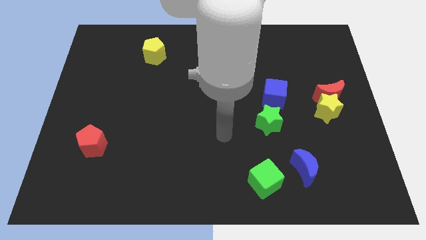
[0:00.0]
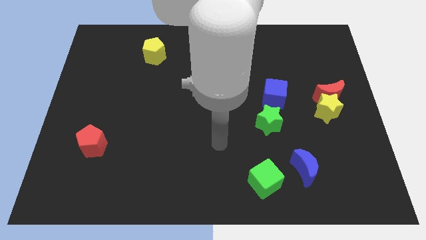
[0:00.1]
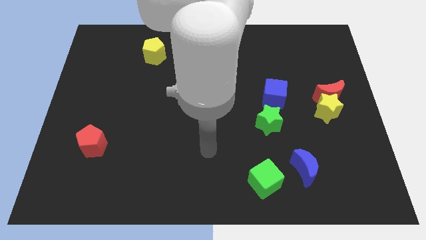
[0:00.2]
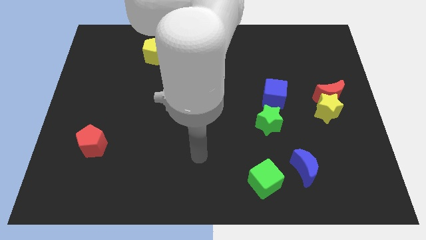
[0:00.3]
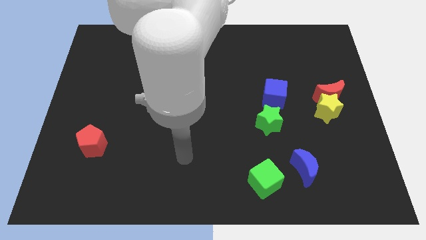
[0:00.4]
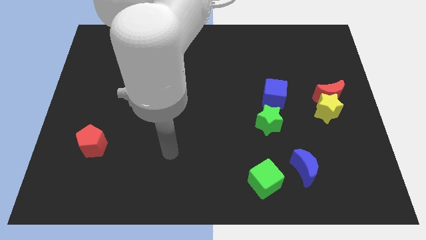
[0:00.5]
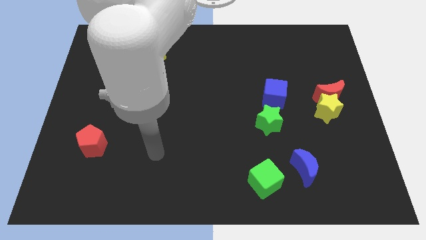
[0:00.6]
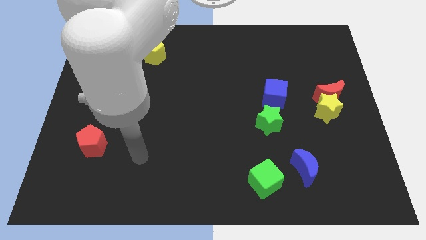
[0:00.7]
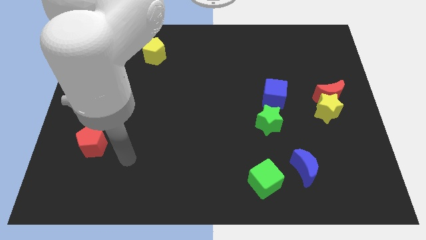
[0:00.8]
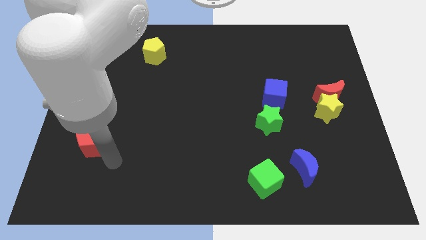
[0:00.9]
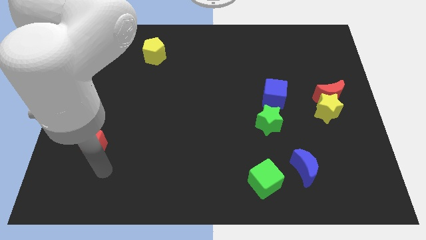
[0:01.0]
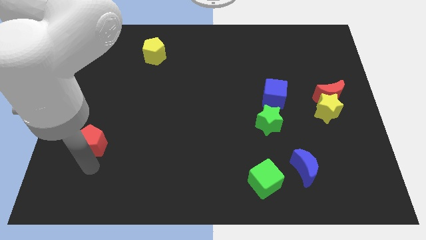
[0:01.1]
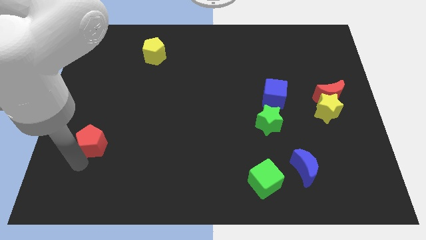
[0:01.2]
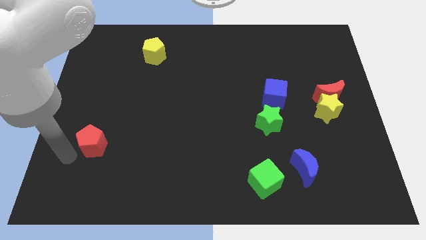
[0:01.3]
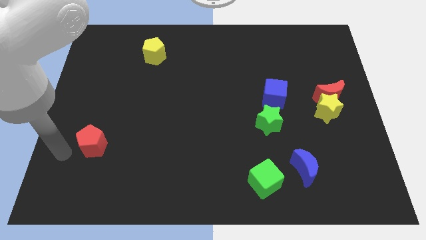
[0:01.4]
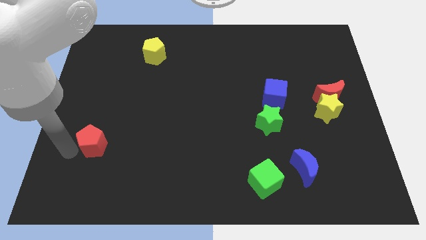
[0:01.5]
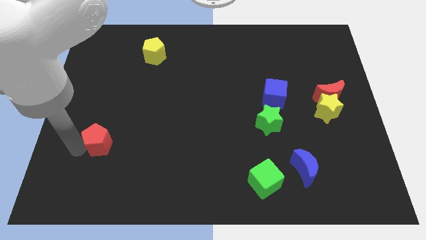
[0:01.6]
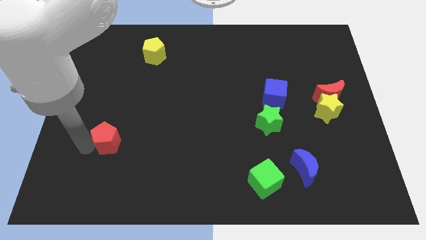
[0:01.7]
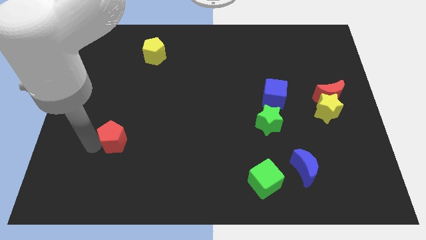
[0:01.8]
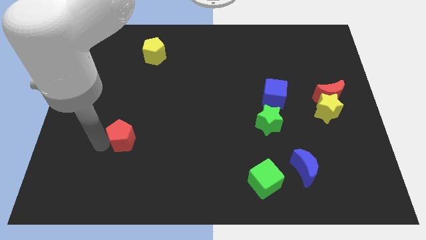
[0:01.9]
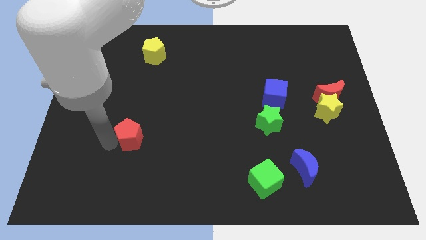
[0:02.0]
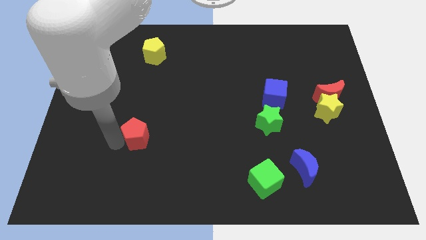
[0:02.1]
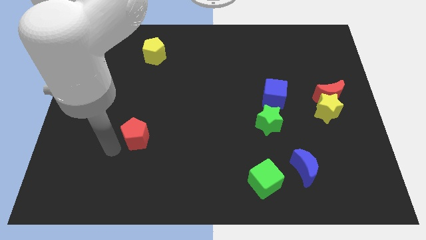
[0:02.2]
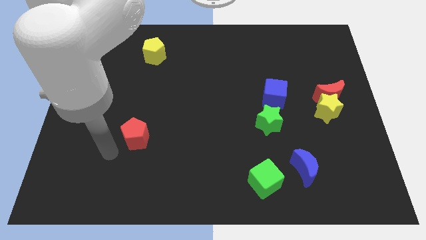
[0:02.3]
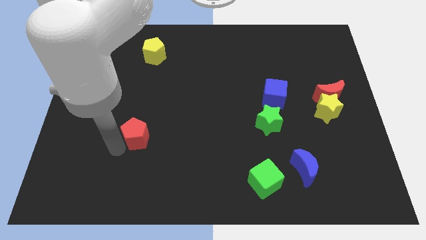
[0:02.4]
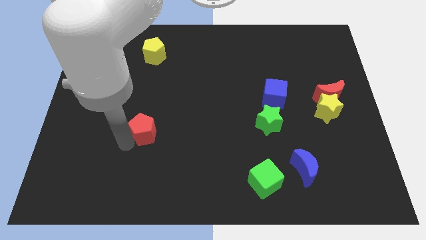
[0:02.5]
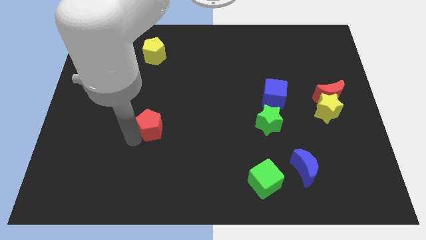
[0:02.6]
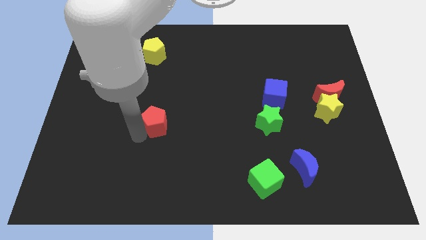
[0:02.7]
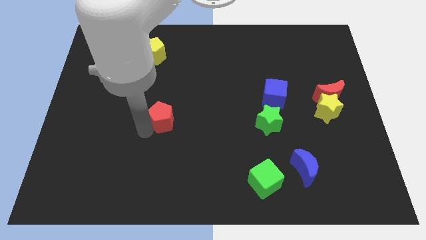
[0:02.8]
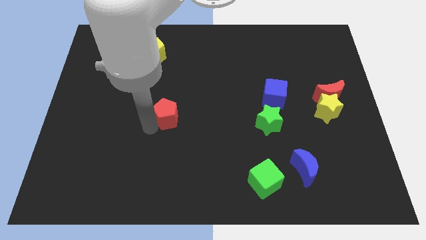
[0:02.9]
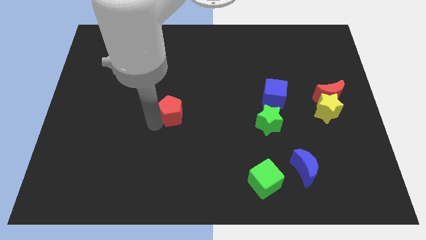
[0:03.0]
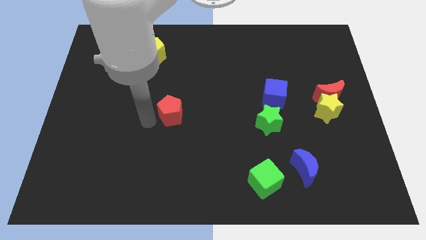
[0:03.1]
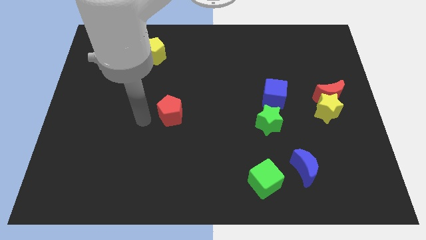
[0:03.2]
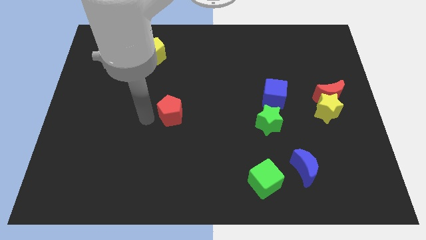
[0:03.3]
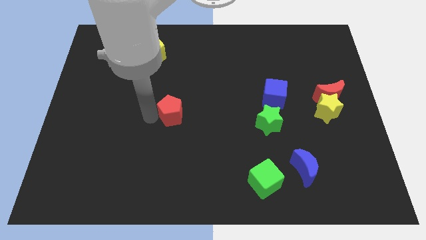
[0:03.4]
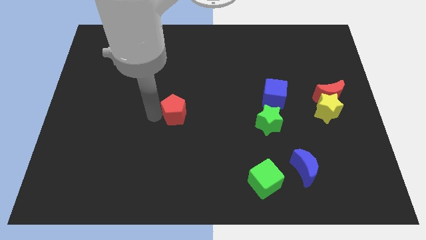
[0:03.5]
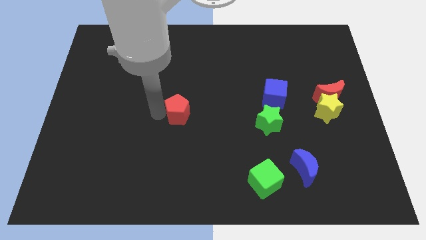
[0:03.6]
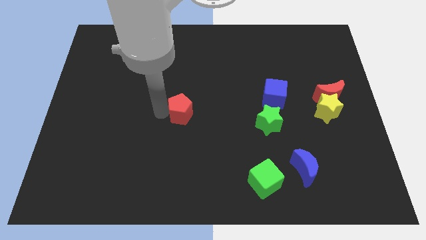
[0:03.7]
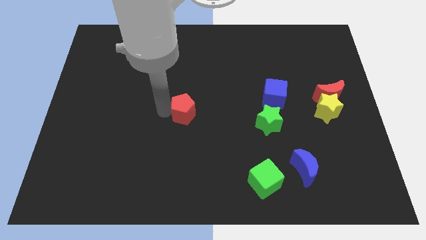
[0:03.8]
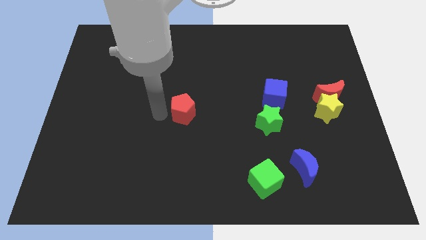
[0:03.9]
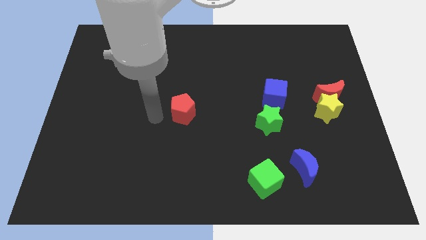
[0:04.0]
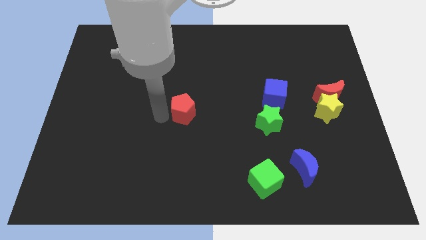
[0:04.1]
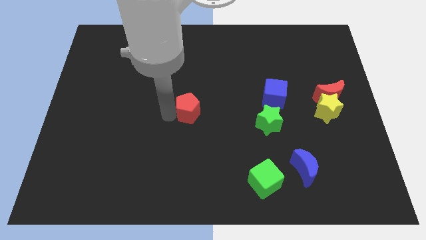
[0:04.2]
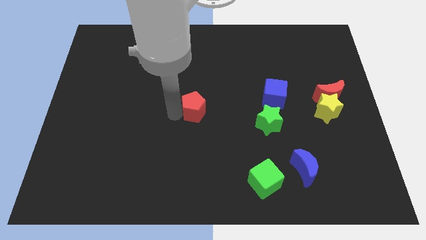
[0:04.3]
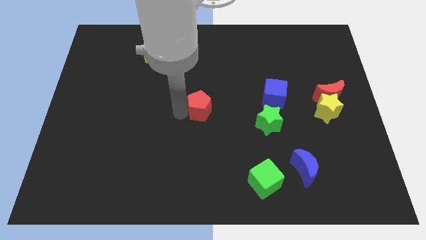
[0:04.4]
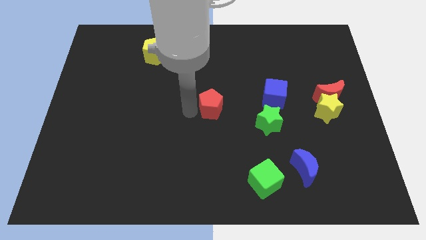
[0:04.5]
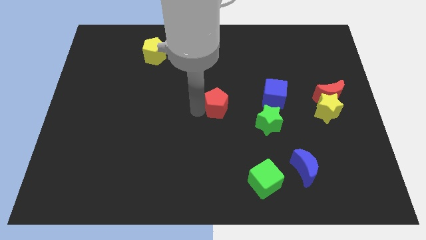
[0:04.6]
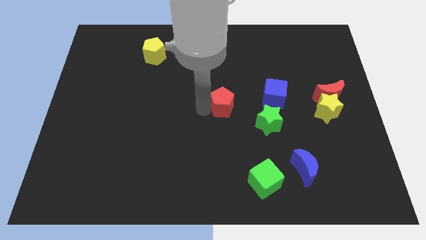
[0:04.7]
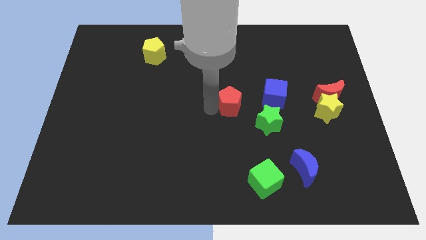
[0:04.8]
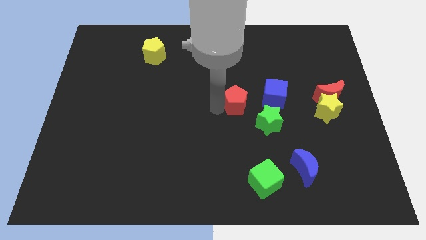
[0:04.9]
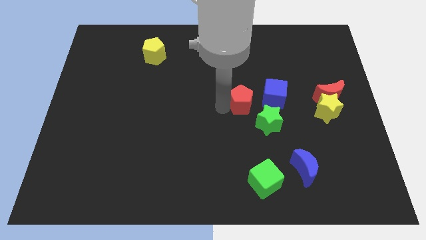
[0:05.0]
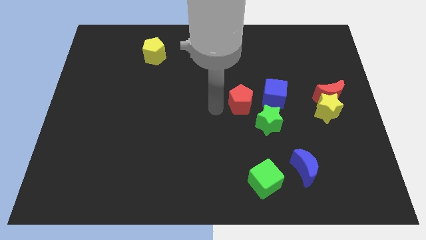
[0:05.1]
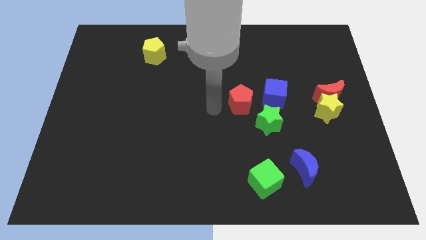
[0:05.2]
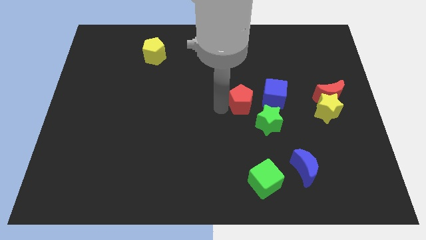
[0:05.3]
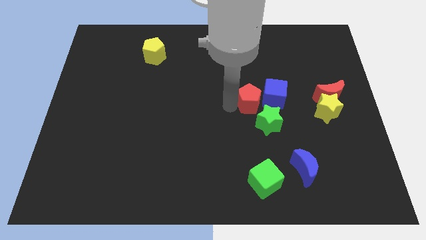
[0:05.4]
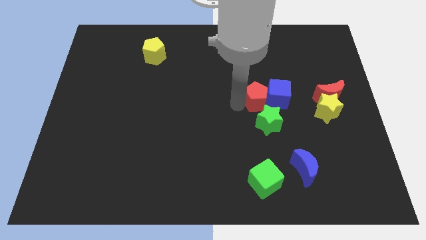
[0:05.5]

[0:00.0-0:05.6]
slide the red pentagon close to the blue cube

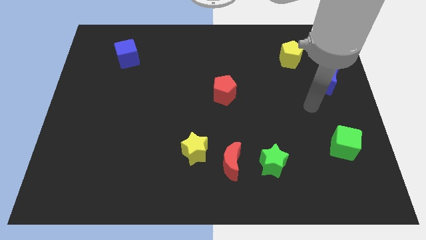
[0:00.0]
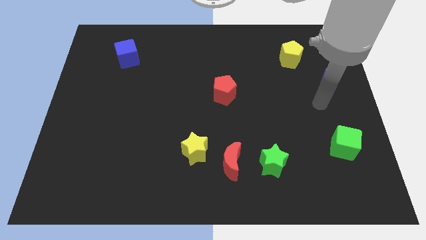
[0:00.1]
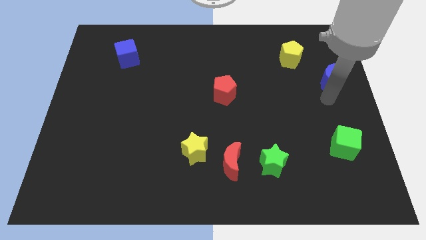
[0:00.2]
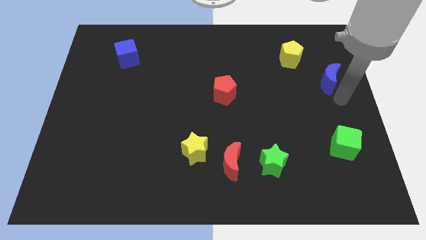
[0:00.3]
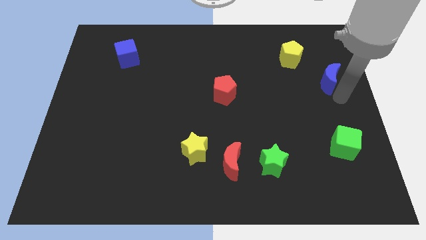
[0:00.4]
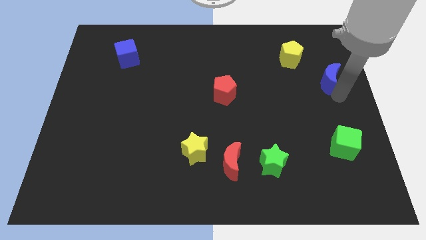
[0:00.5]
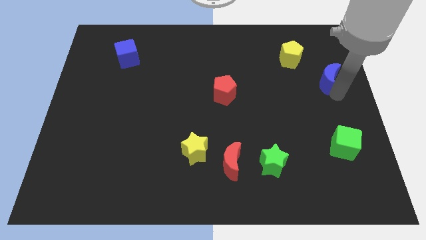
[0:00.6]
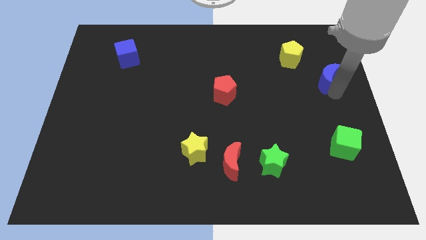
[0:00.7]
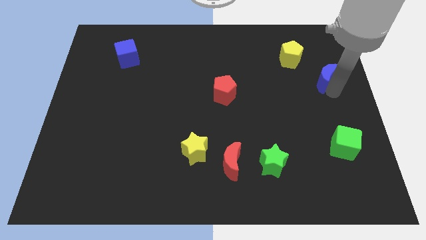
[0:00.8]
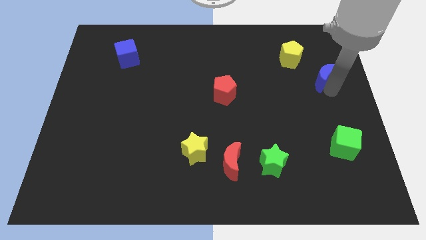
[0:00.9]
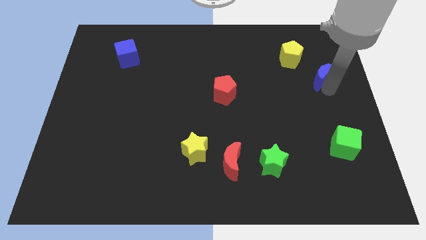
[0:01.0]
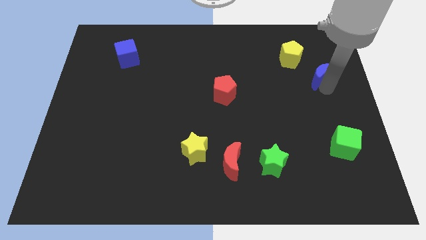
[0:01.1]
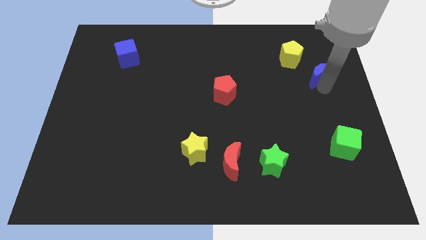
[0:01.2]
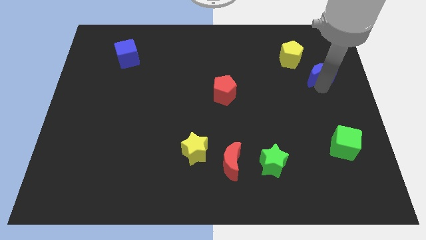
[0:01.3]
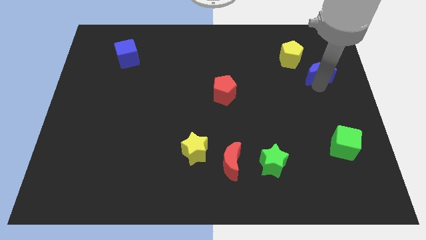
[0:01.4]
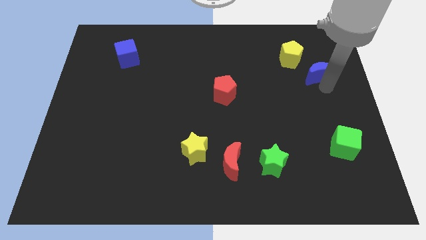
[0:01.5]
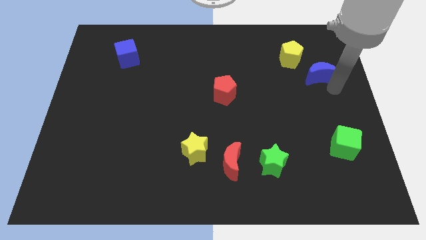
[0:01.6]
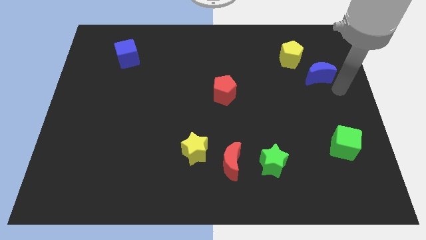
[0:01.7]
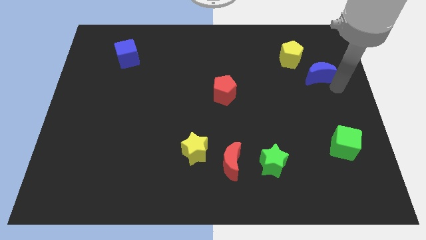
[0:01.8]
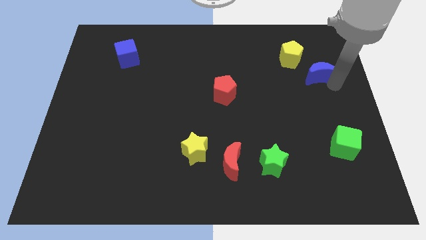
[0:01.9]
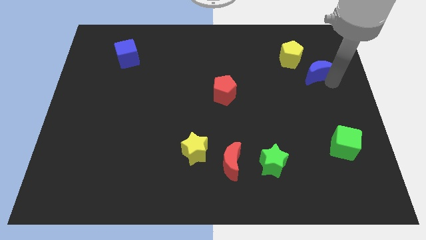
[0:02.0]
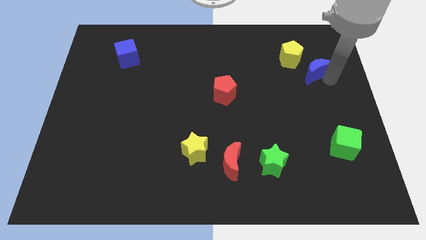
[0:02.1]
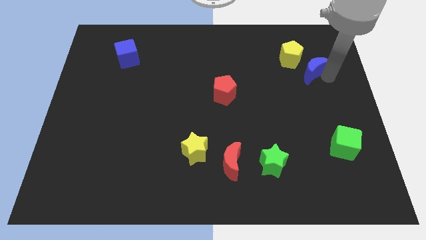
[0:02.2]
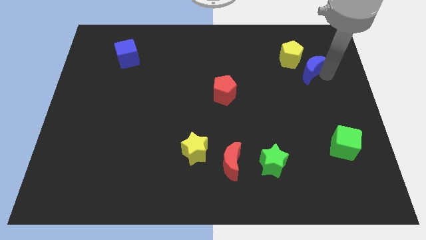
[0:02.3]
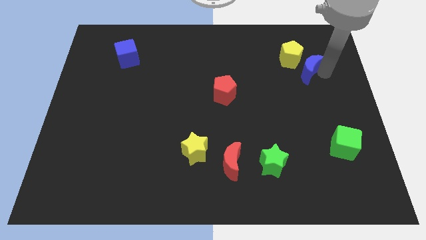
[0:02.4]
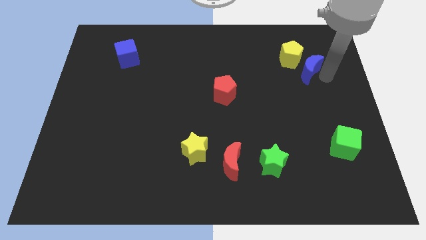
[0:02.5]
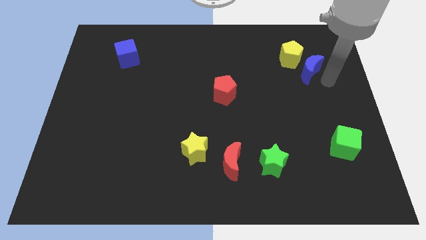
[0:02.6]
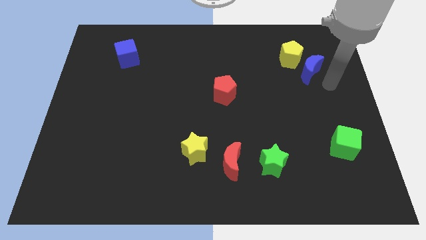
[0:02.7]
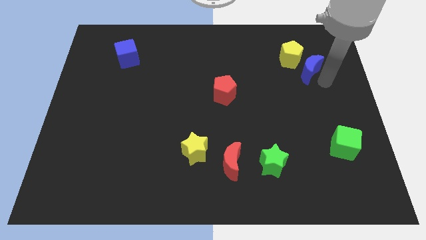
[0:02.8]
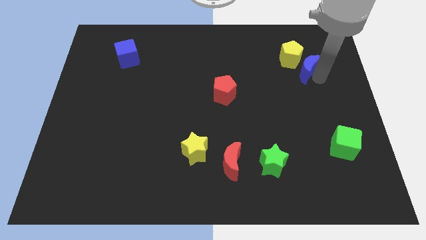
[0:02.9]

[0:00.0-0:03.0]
push the blue moon to the yellow pentagon
